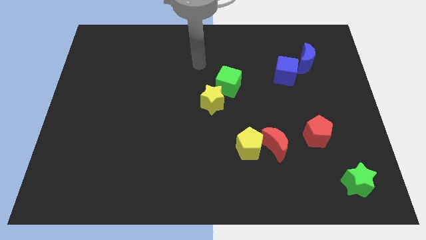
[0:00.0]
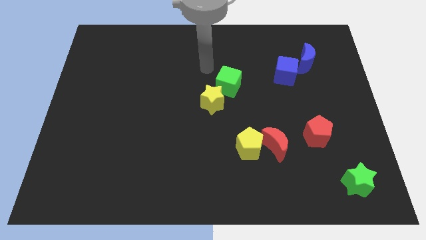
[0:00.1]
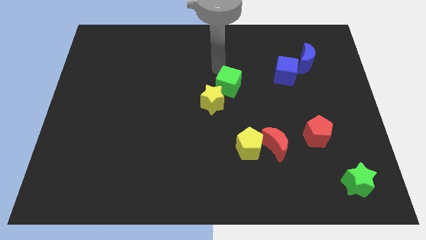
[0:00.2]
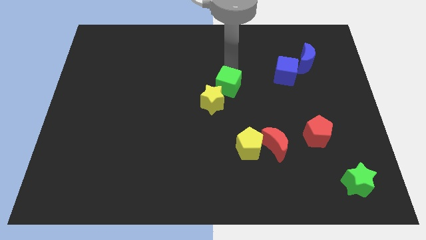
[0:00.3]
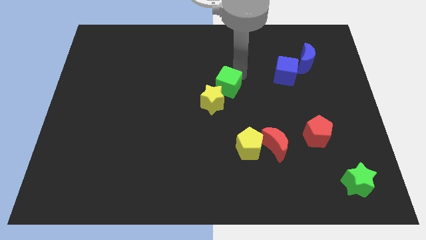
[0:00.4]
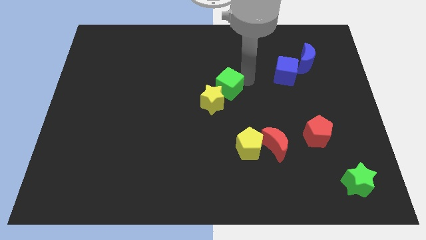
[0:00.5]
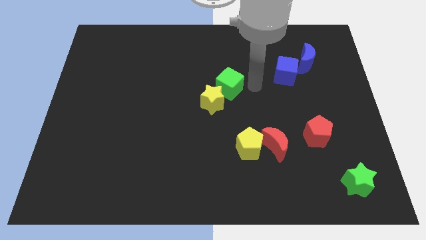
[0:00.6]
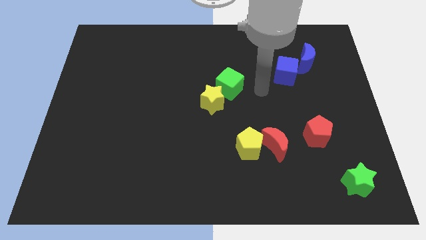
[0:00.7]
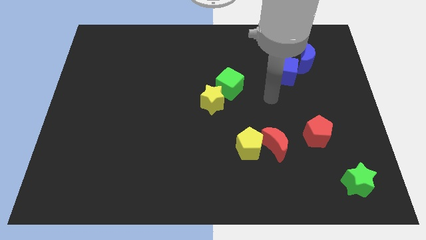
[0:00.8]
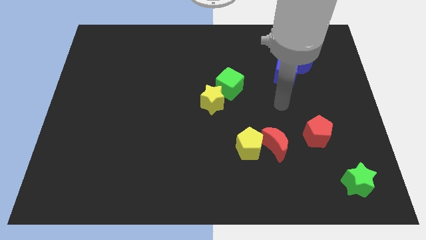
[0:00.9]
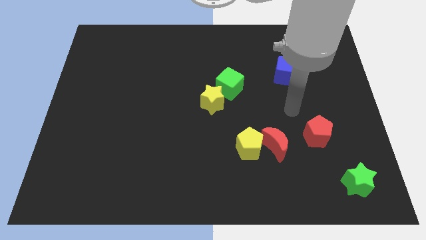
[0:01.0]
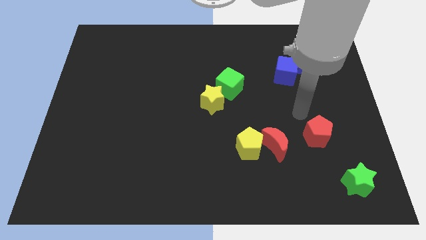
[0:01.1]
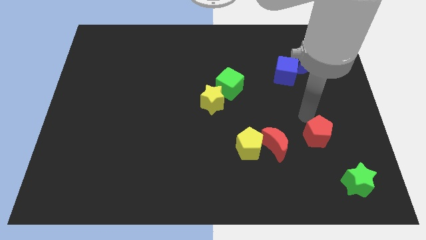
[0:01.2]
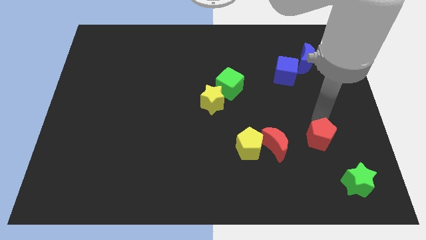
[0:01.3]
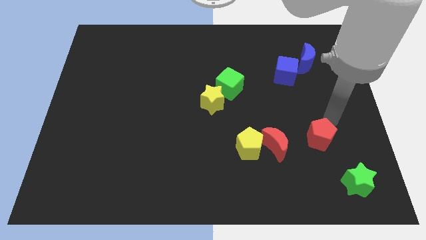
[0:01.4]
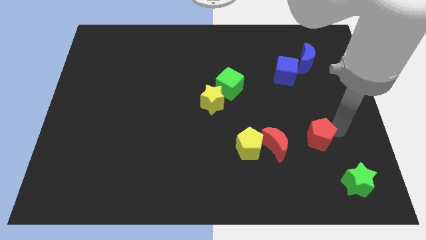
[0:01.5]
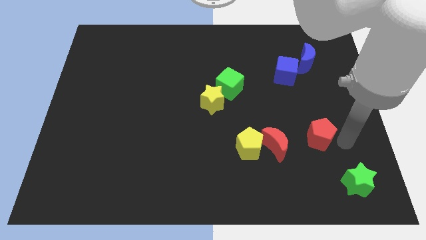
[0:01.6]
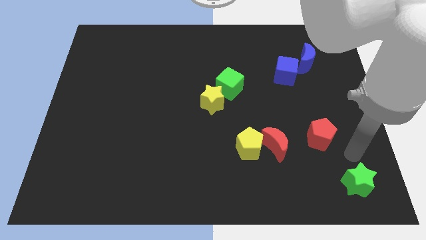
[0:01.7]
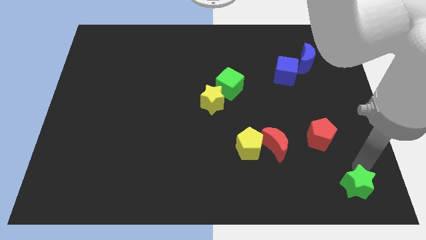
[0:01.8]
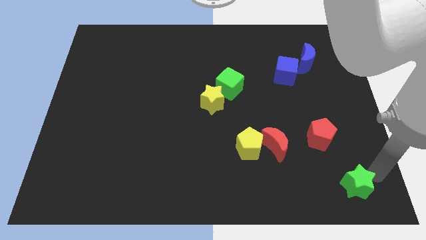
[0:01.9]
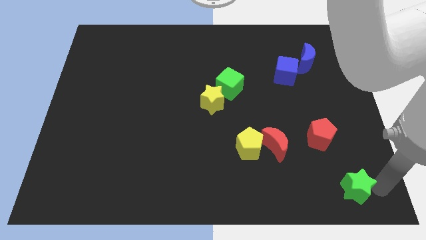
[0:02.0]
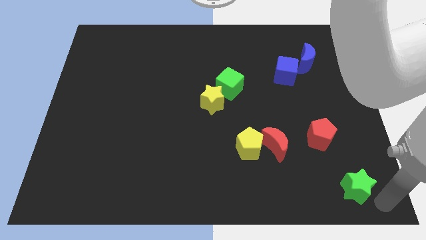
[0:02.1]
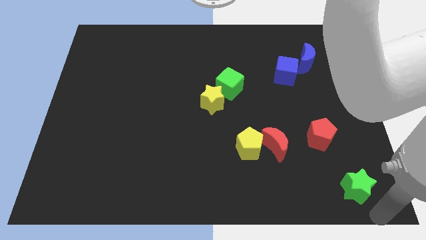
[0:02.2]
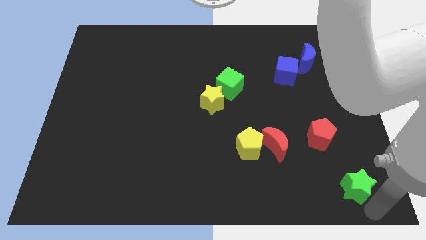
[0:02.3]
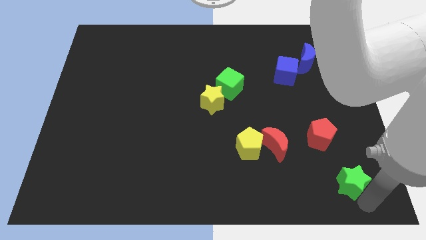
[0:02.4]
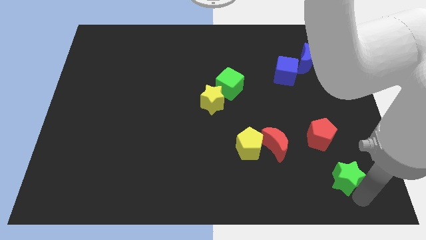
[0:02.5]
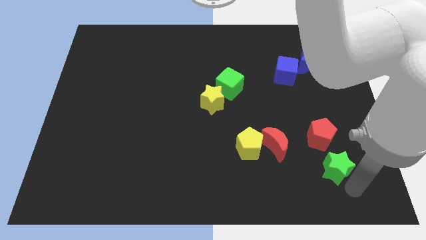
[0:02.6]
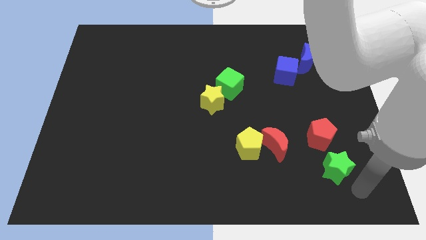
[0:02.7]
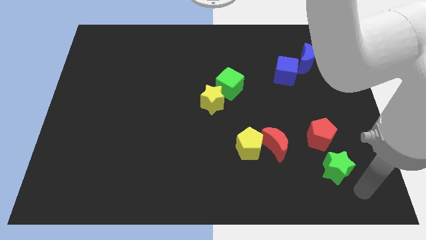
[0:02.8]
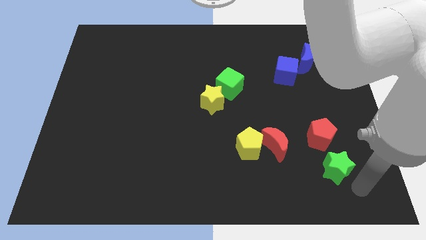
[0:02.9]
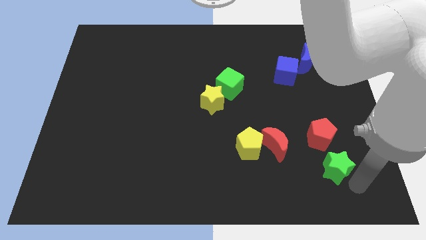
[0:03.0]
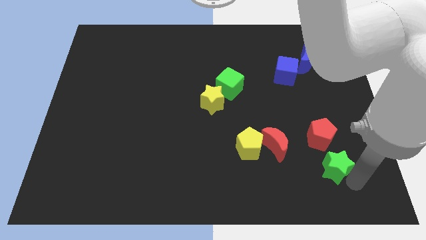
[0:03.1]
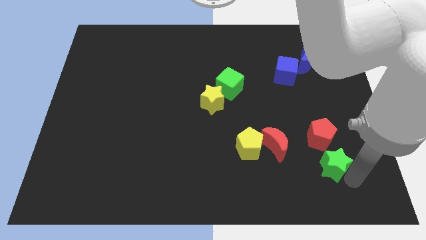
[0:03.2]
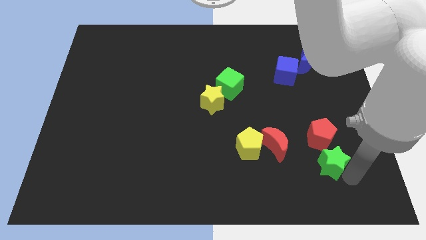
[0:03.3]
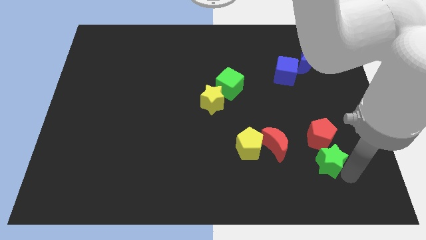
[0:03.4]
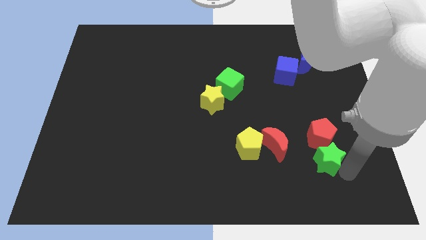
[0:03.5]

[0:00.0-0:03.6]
slide the green star a little diagonally up and left

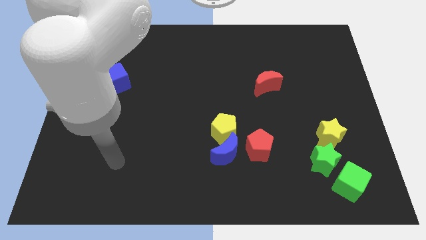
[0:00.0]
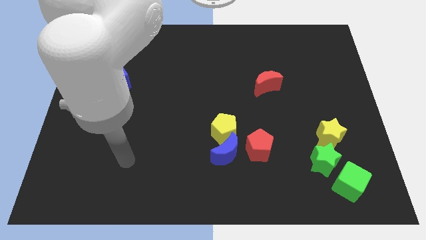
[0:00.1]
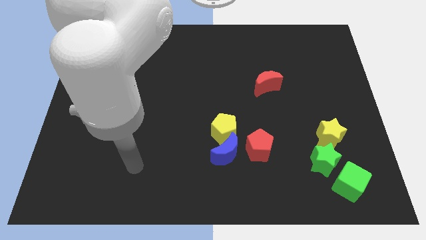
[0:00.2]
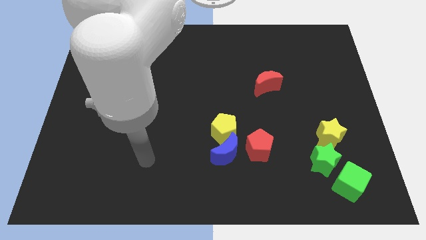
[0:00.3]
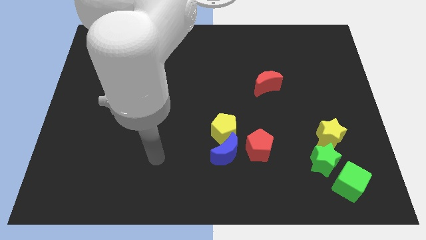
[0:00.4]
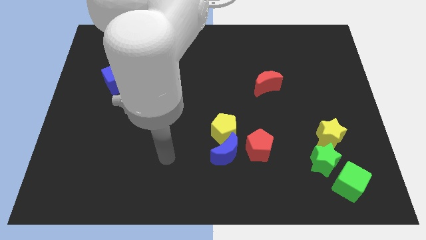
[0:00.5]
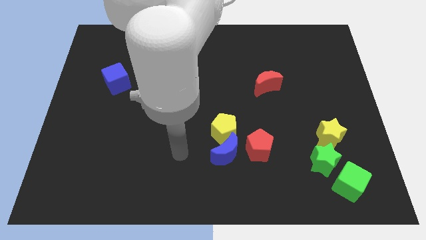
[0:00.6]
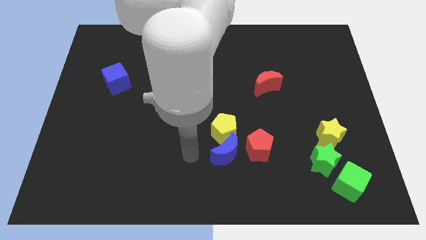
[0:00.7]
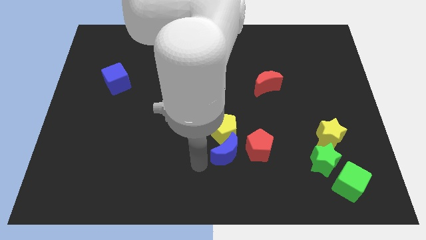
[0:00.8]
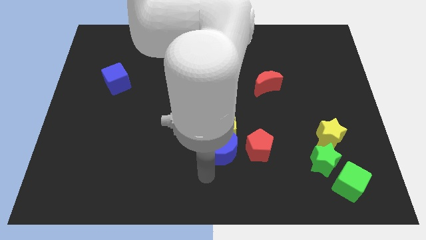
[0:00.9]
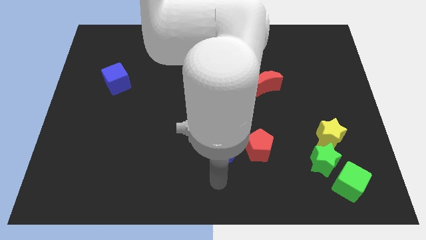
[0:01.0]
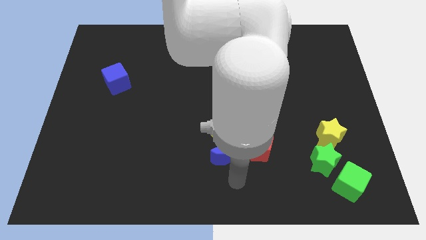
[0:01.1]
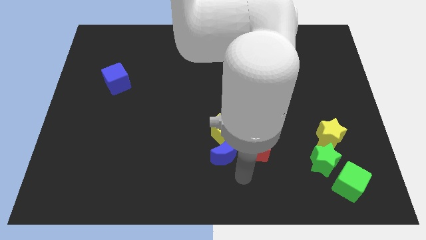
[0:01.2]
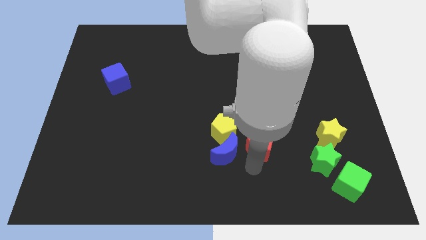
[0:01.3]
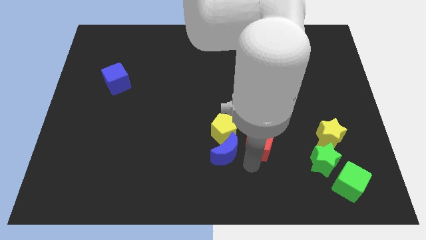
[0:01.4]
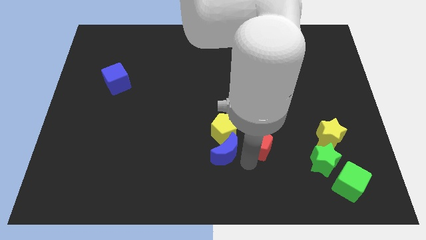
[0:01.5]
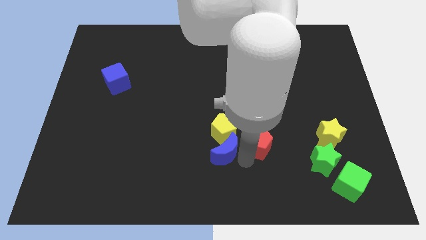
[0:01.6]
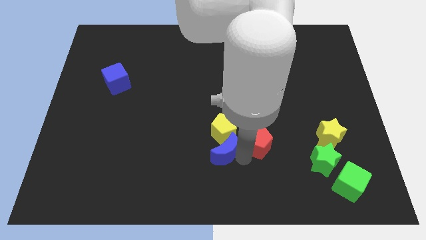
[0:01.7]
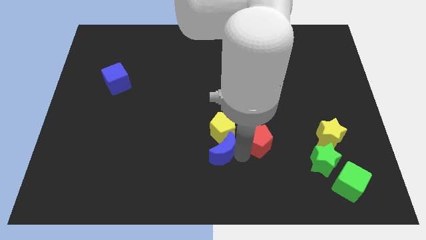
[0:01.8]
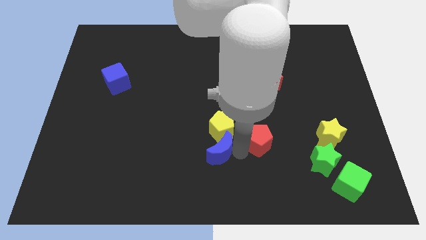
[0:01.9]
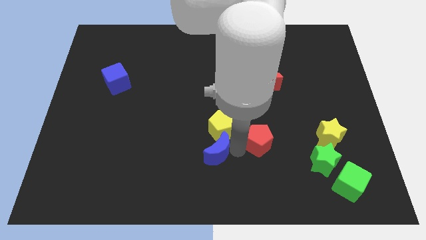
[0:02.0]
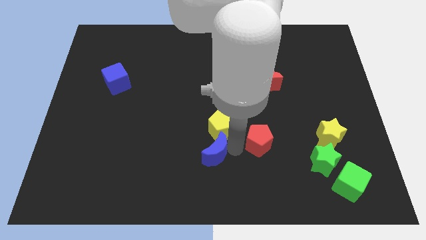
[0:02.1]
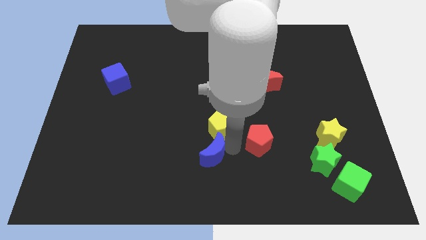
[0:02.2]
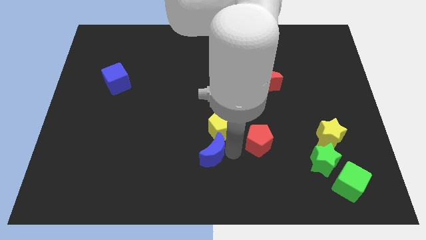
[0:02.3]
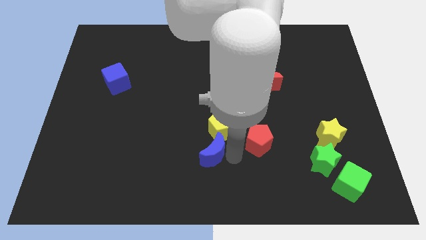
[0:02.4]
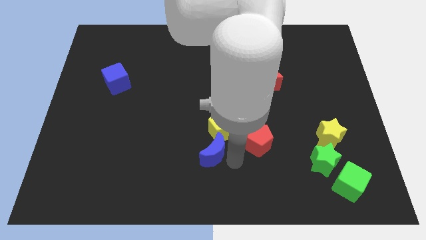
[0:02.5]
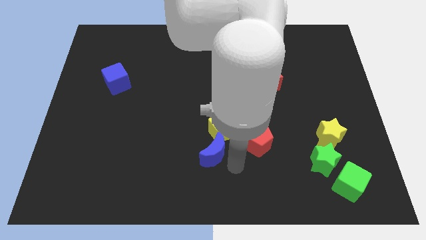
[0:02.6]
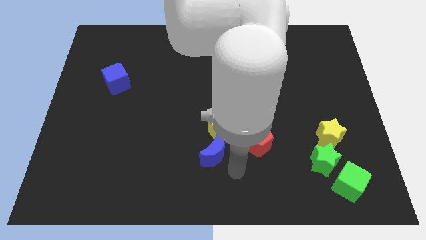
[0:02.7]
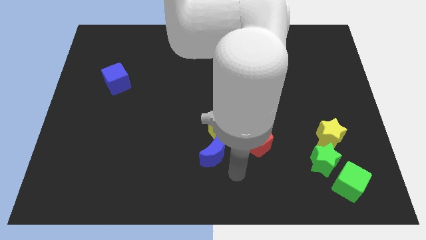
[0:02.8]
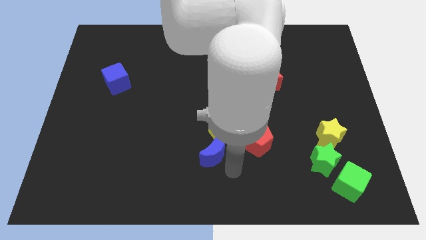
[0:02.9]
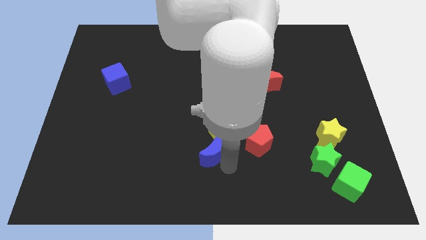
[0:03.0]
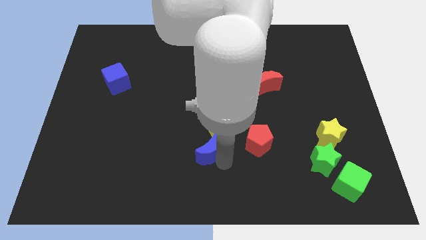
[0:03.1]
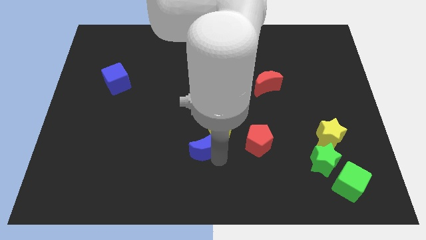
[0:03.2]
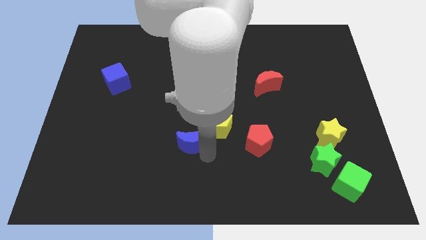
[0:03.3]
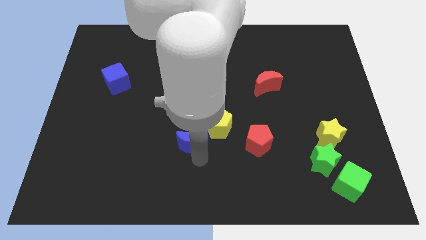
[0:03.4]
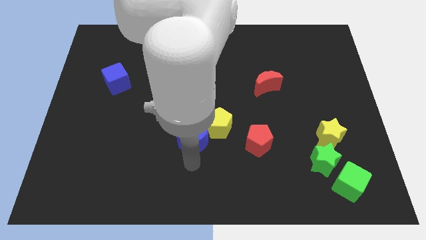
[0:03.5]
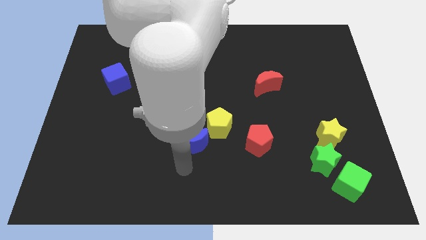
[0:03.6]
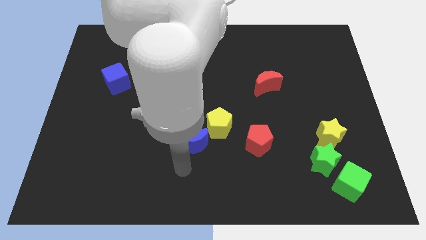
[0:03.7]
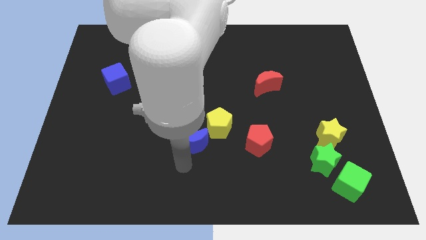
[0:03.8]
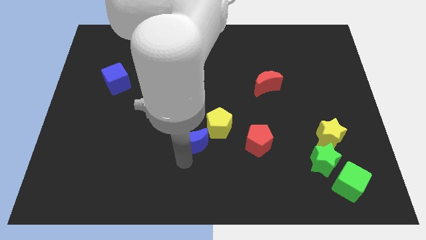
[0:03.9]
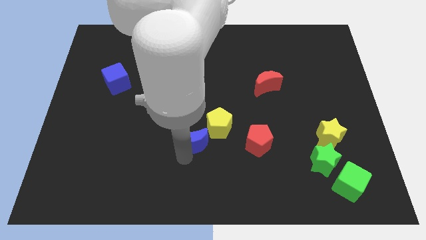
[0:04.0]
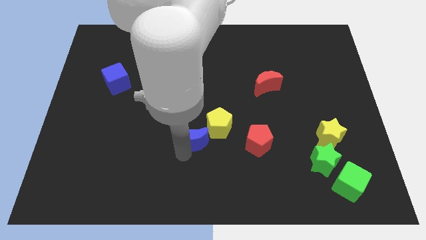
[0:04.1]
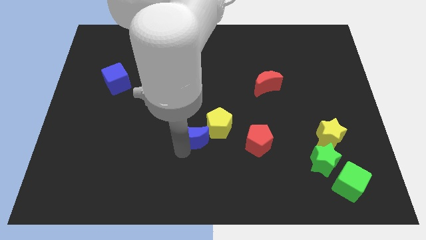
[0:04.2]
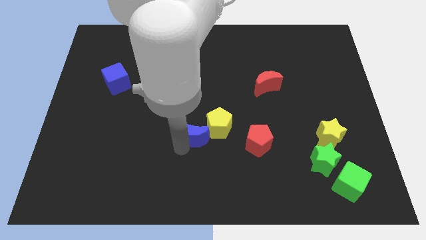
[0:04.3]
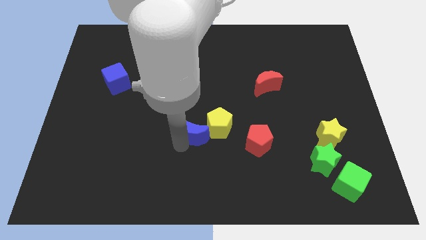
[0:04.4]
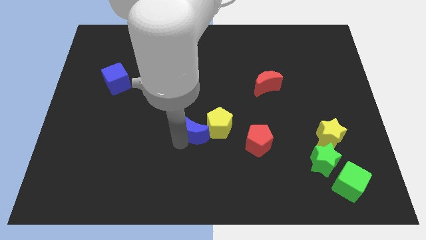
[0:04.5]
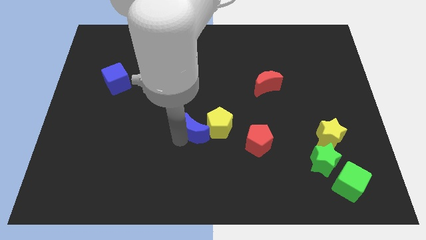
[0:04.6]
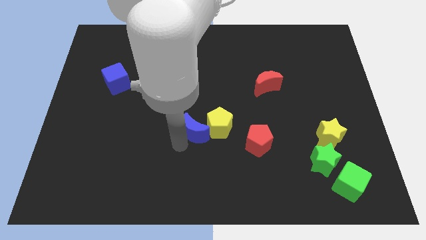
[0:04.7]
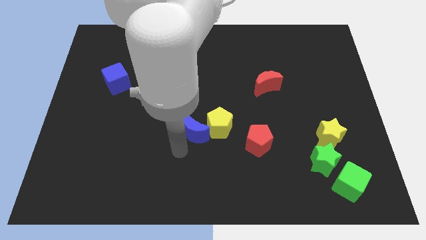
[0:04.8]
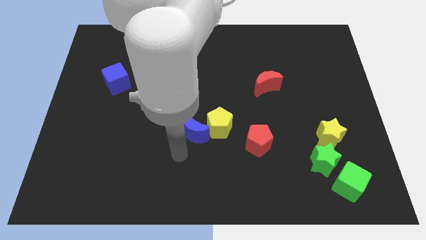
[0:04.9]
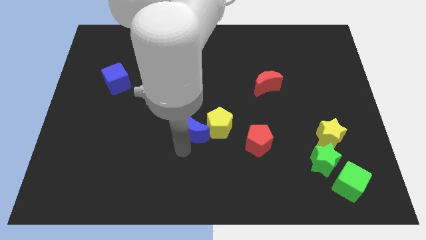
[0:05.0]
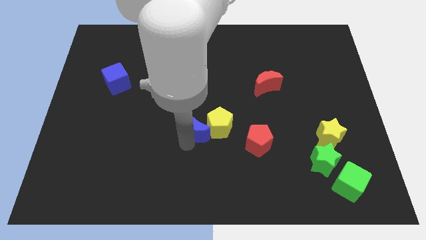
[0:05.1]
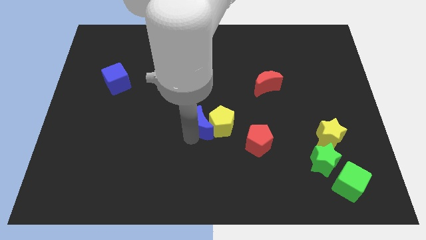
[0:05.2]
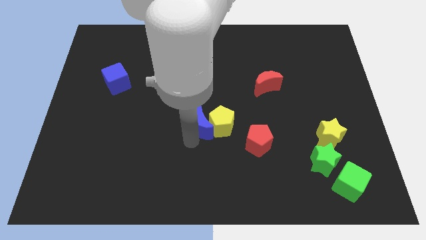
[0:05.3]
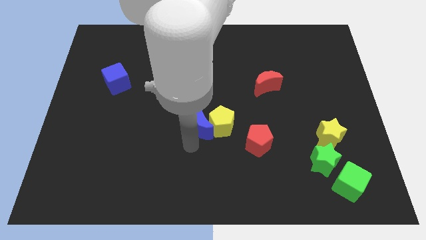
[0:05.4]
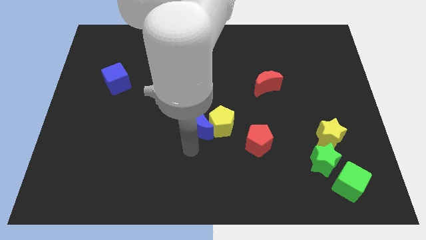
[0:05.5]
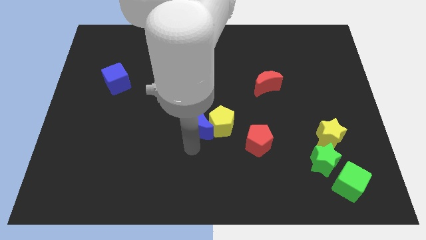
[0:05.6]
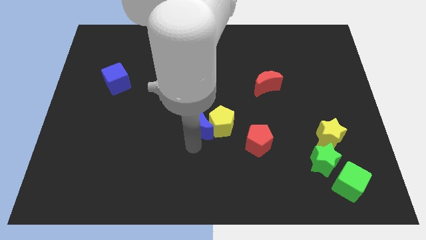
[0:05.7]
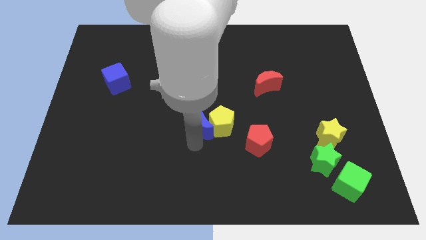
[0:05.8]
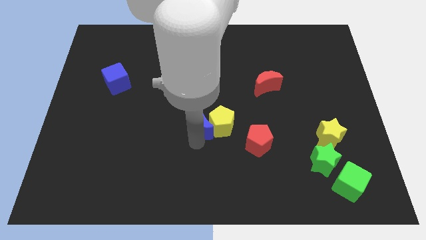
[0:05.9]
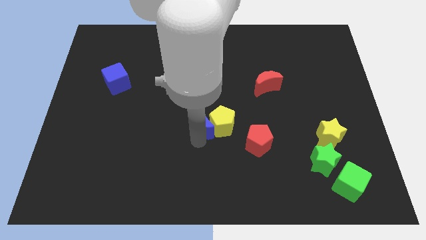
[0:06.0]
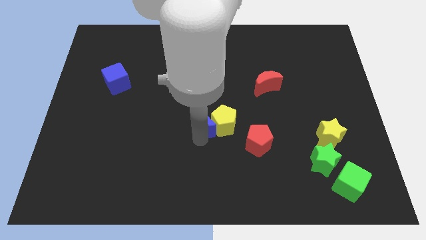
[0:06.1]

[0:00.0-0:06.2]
slide the blue moon up somewhat
